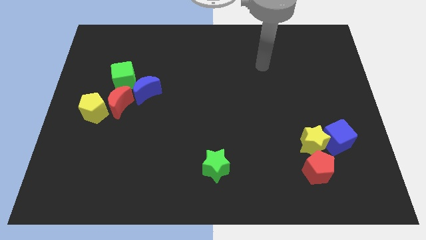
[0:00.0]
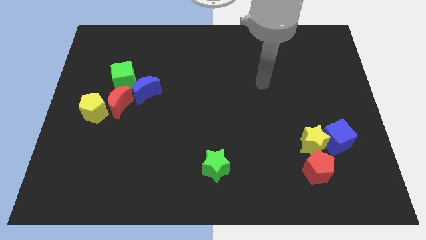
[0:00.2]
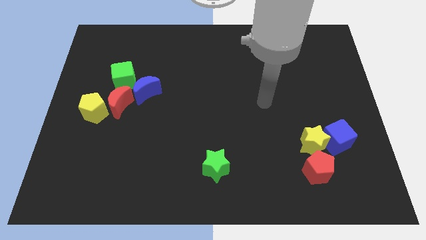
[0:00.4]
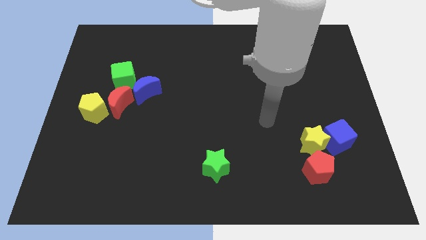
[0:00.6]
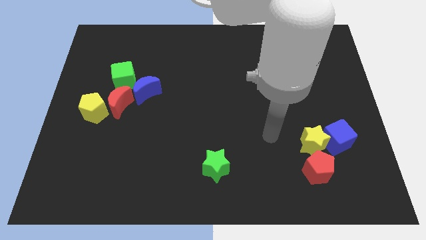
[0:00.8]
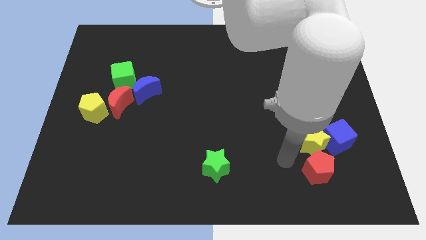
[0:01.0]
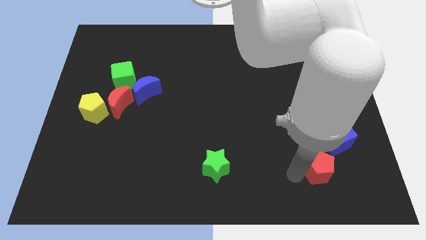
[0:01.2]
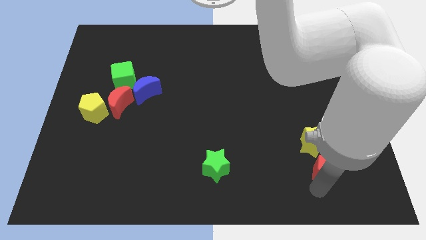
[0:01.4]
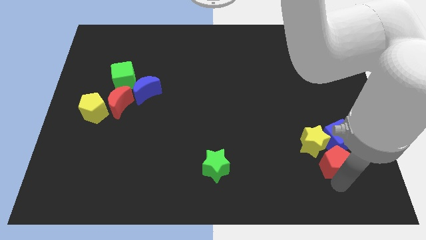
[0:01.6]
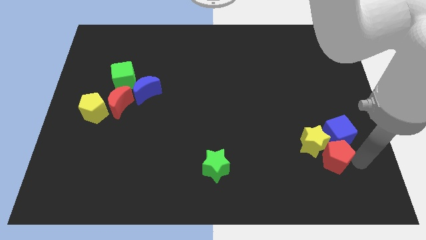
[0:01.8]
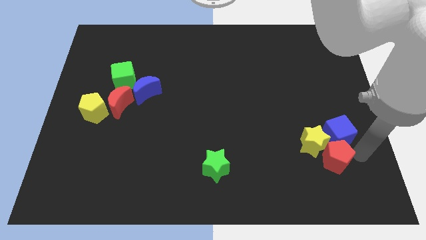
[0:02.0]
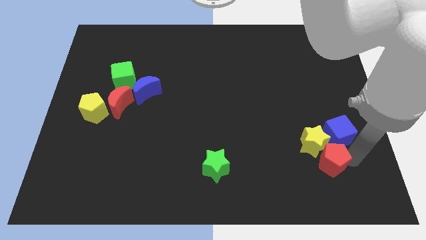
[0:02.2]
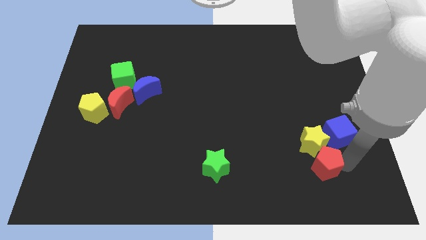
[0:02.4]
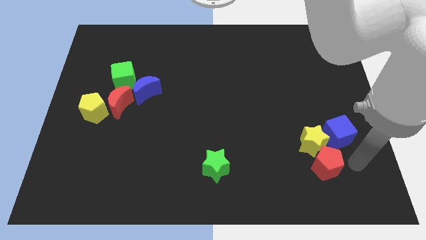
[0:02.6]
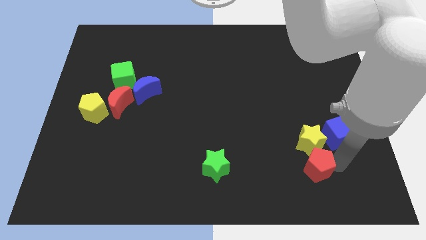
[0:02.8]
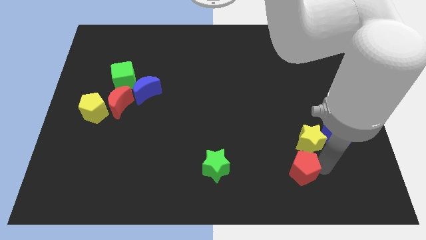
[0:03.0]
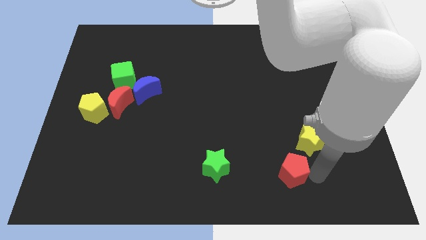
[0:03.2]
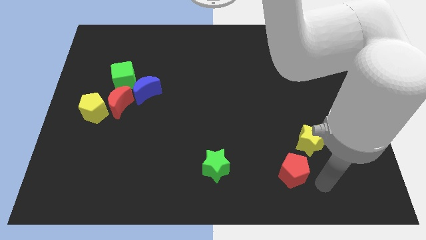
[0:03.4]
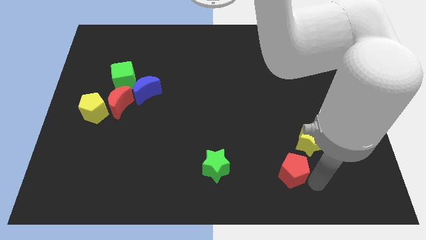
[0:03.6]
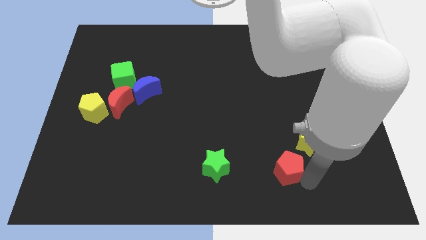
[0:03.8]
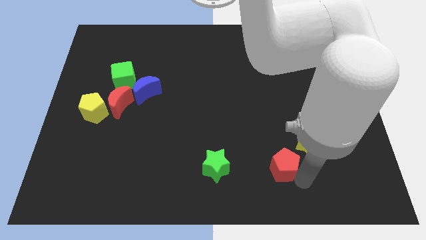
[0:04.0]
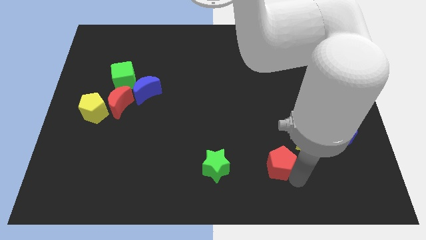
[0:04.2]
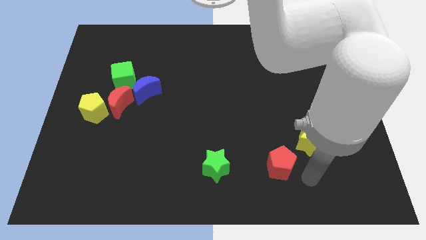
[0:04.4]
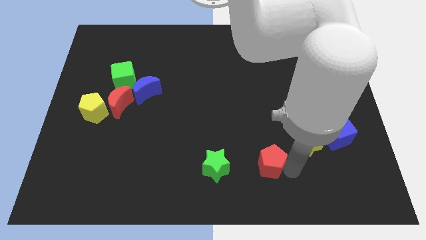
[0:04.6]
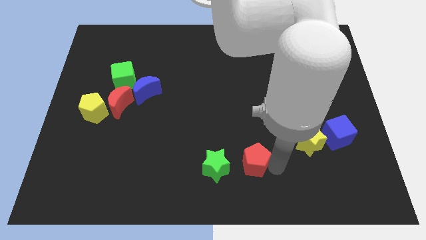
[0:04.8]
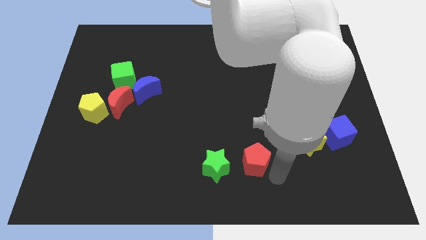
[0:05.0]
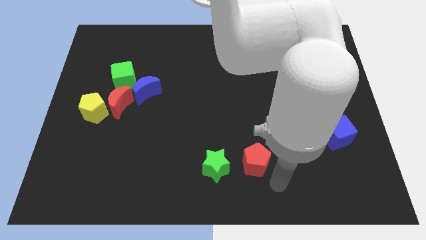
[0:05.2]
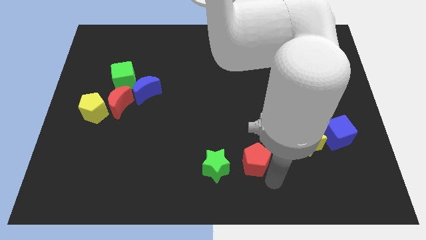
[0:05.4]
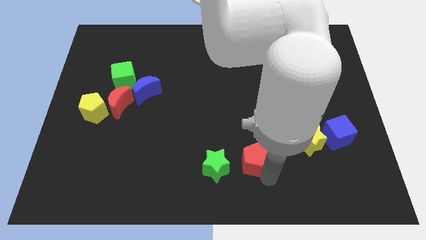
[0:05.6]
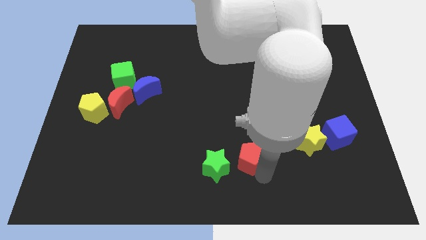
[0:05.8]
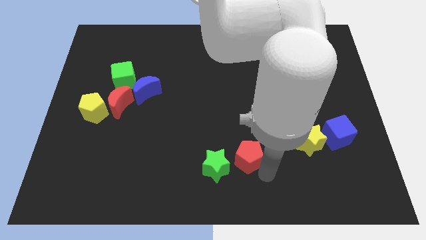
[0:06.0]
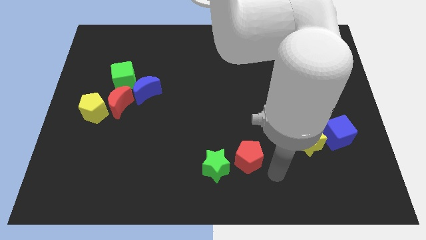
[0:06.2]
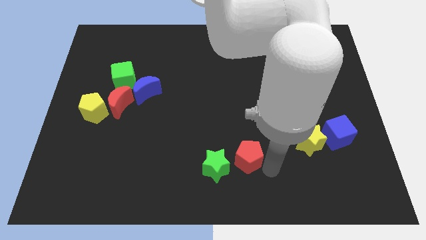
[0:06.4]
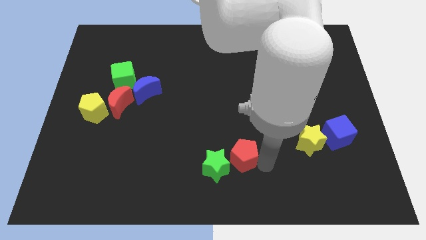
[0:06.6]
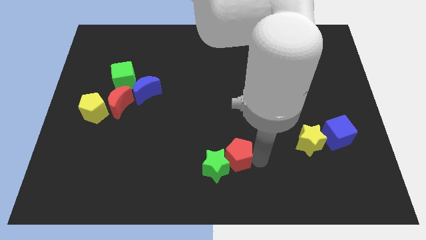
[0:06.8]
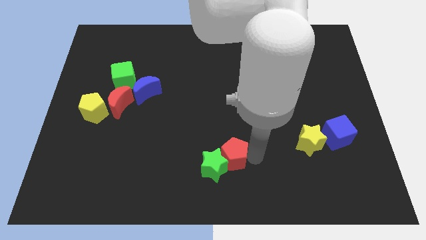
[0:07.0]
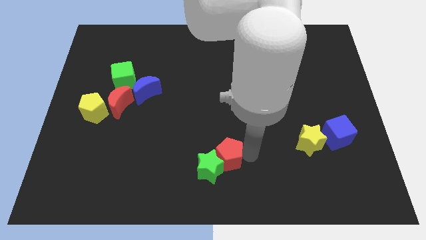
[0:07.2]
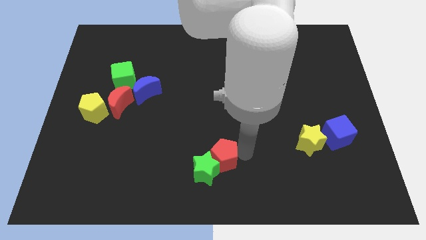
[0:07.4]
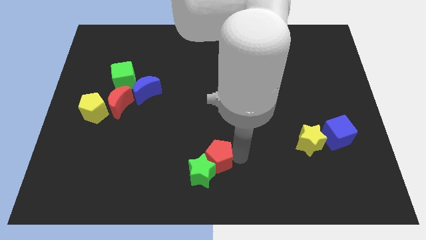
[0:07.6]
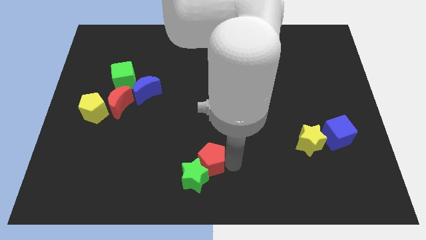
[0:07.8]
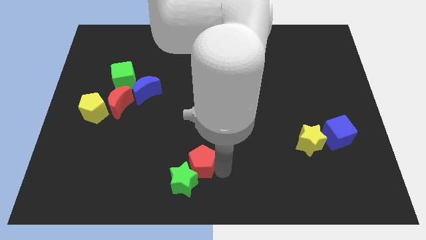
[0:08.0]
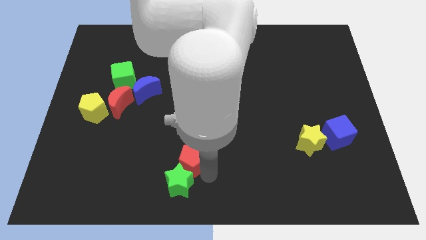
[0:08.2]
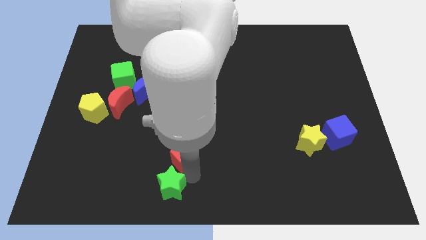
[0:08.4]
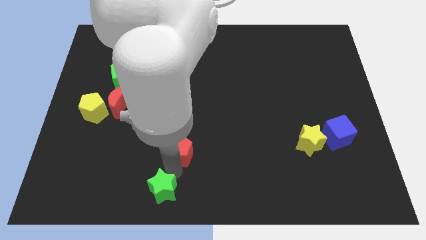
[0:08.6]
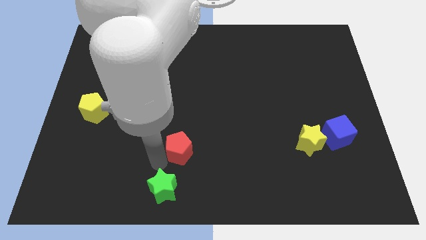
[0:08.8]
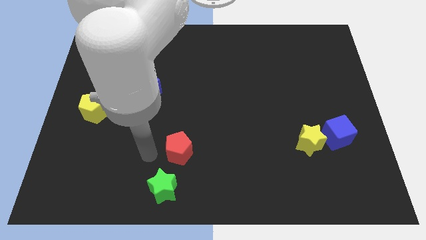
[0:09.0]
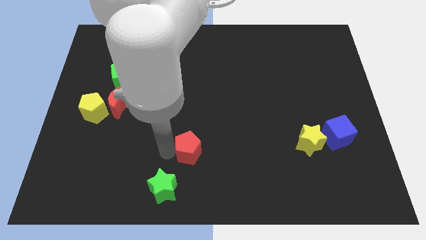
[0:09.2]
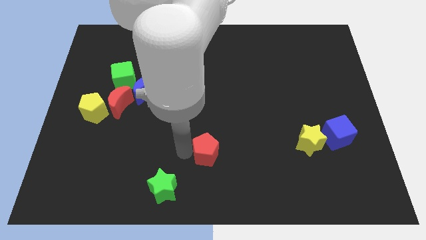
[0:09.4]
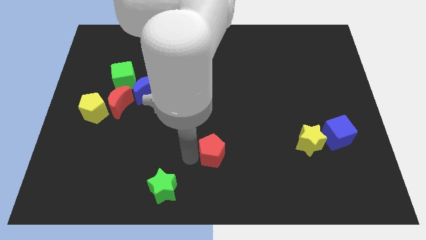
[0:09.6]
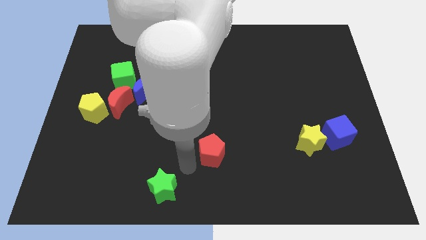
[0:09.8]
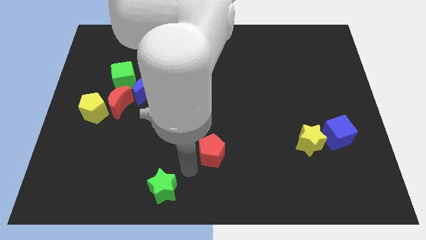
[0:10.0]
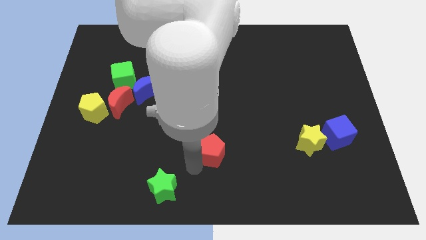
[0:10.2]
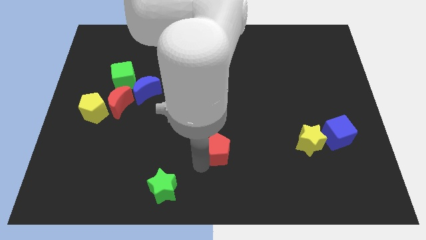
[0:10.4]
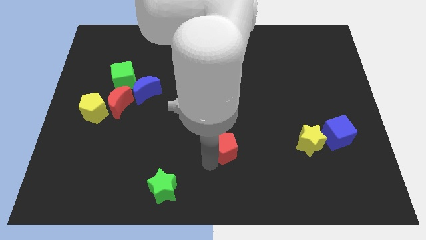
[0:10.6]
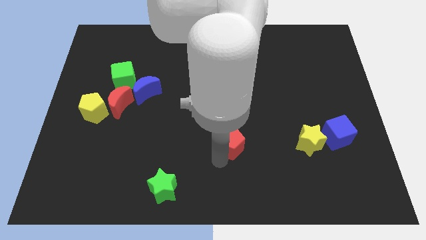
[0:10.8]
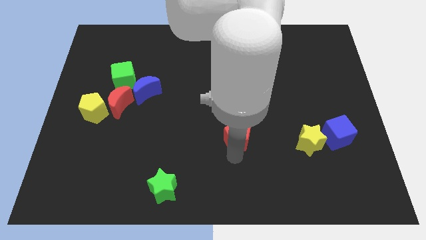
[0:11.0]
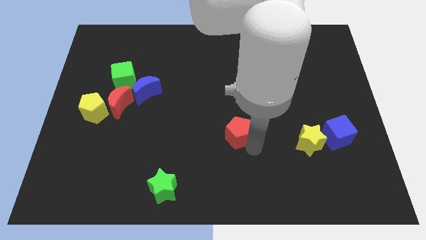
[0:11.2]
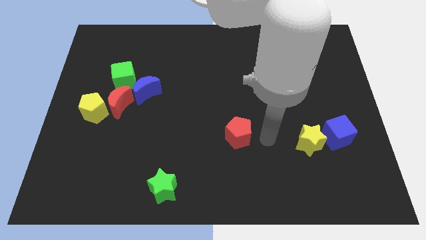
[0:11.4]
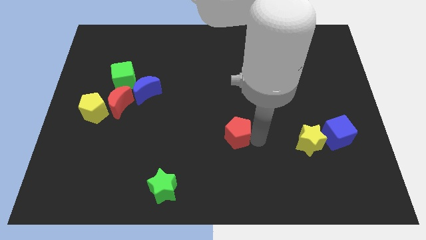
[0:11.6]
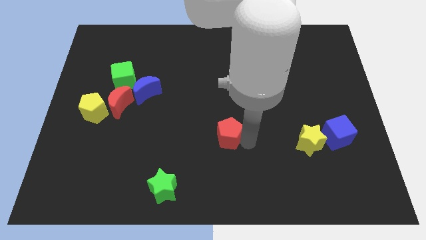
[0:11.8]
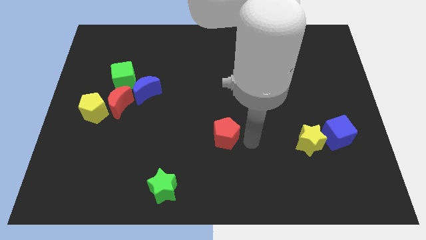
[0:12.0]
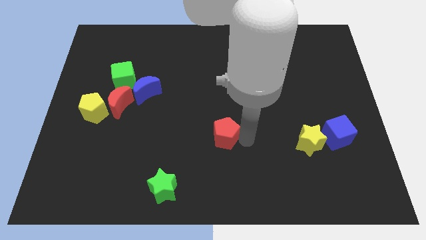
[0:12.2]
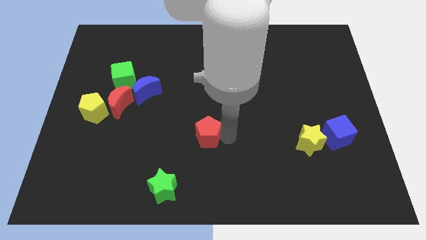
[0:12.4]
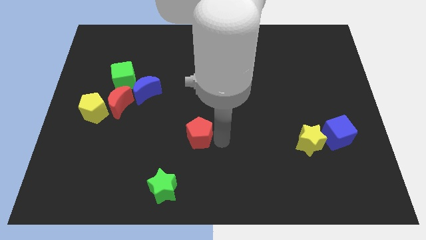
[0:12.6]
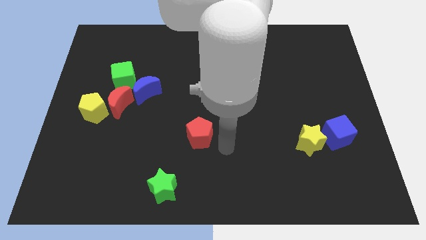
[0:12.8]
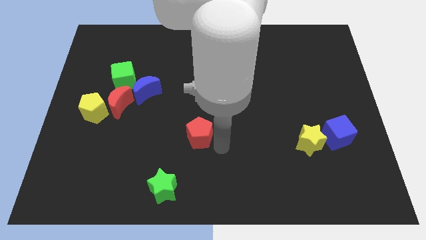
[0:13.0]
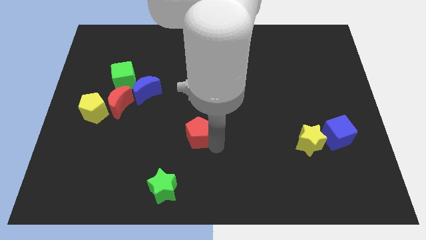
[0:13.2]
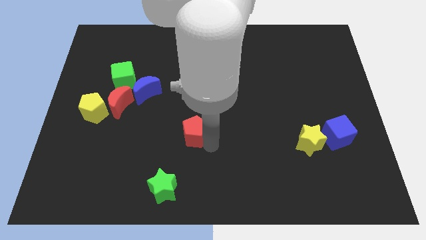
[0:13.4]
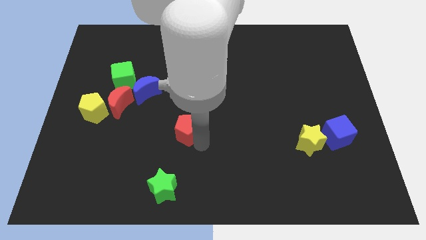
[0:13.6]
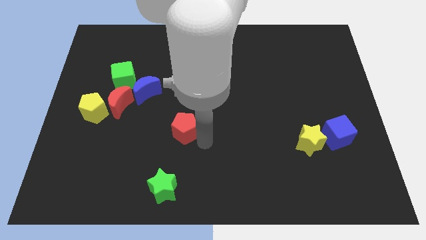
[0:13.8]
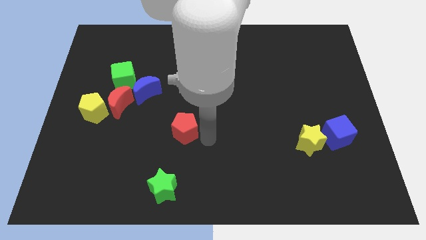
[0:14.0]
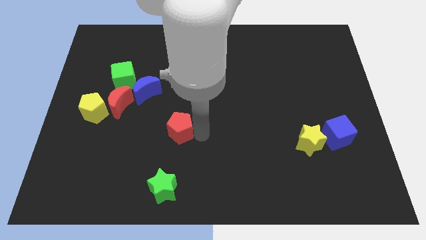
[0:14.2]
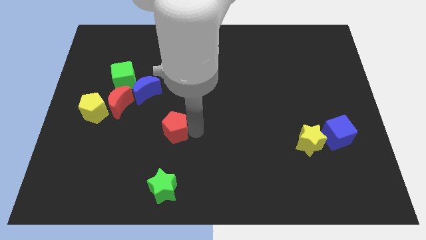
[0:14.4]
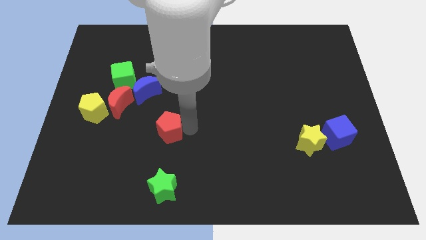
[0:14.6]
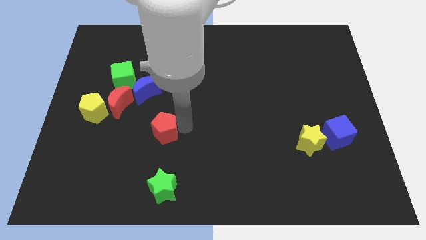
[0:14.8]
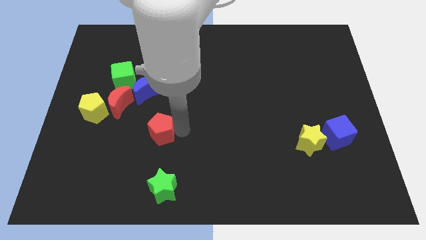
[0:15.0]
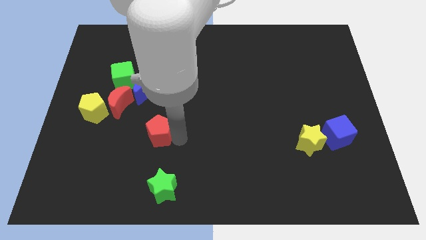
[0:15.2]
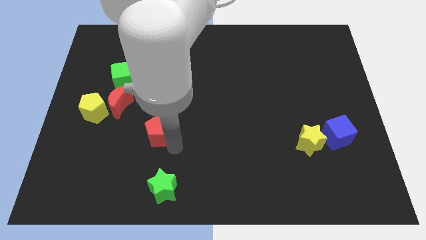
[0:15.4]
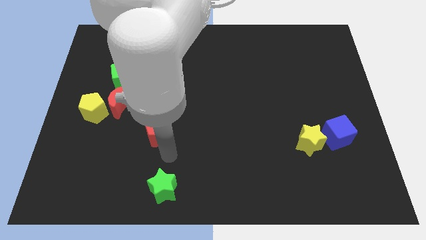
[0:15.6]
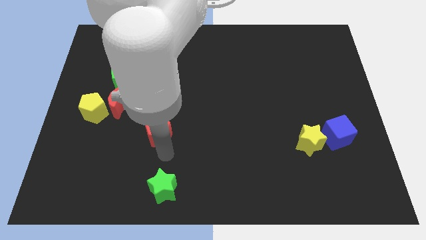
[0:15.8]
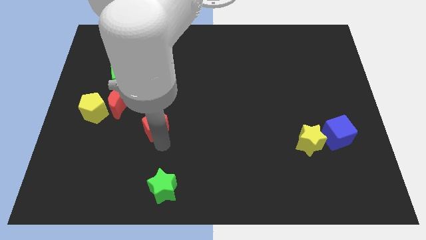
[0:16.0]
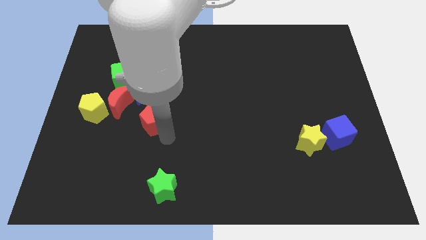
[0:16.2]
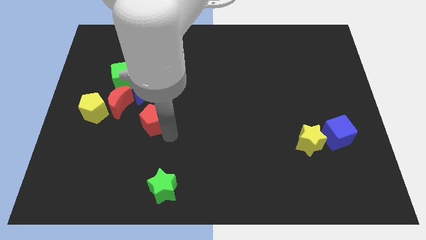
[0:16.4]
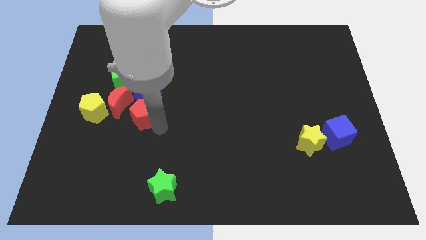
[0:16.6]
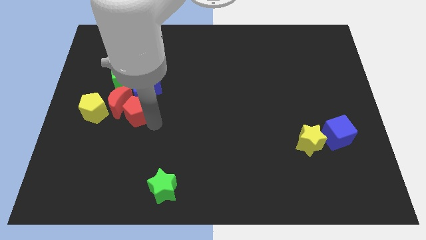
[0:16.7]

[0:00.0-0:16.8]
push the red pentagon next to the red moon
